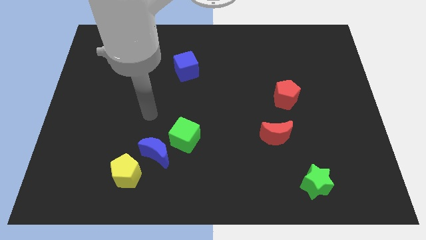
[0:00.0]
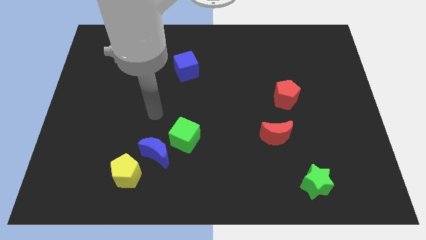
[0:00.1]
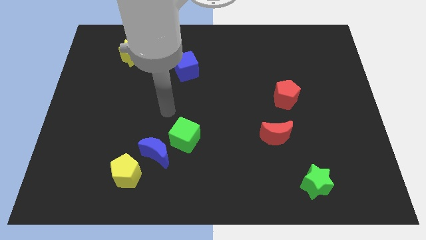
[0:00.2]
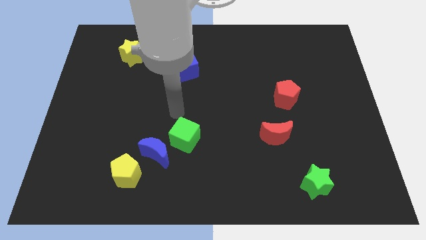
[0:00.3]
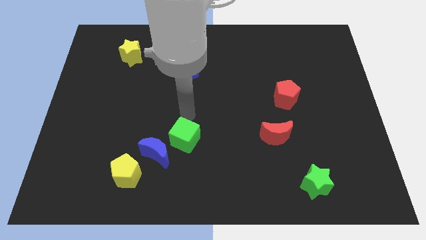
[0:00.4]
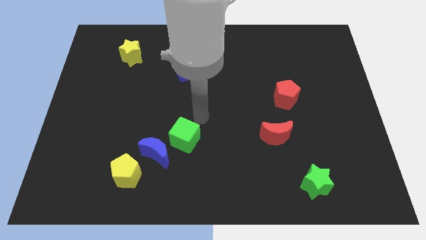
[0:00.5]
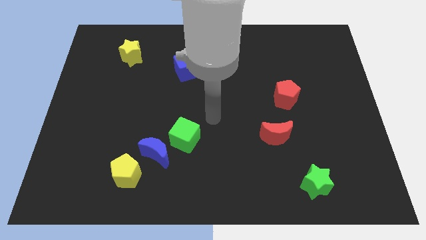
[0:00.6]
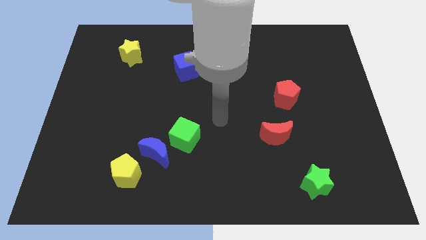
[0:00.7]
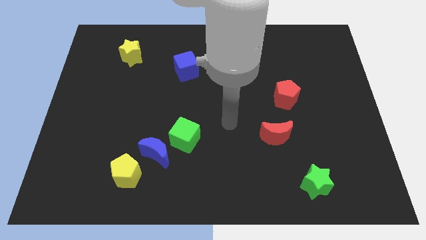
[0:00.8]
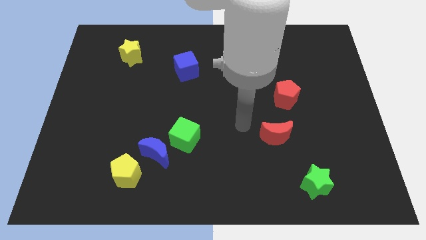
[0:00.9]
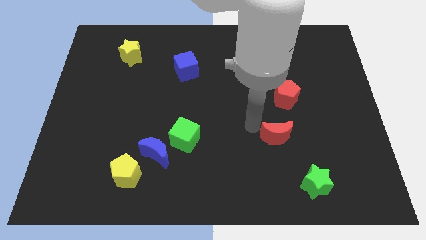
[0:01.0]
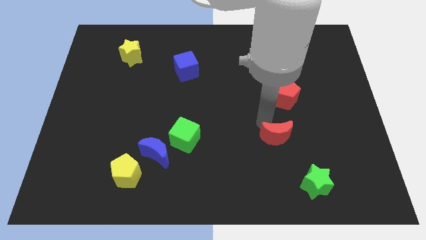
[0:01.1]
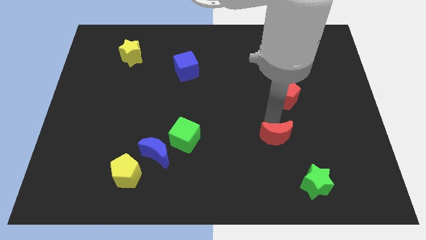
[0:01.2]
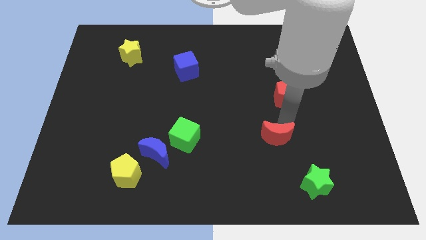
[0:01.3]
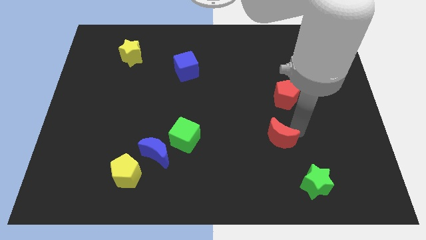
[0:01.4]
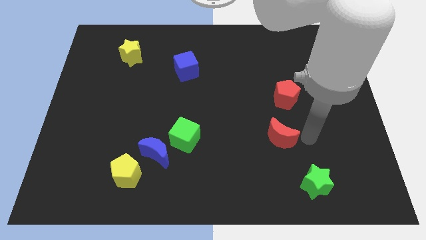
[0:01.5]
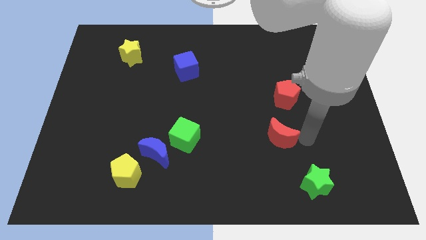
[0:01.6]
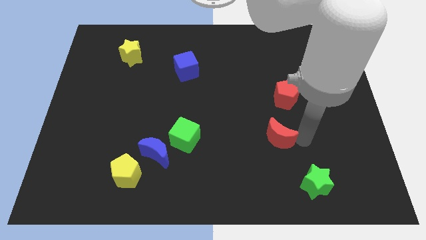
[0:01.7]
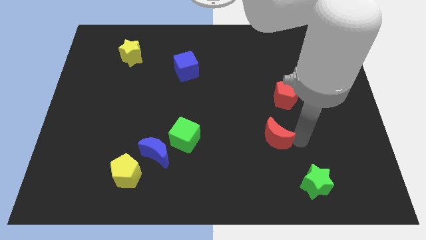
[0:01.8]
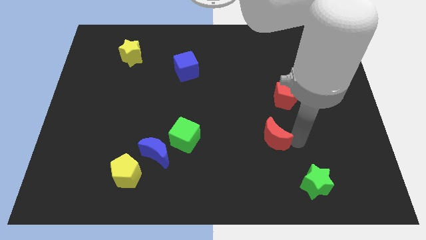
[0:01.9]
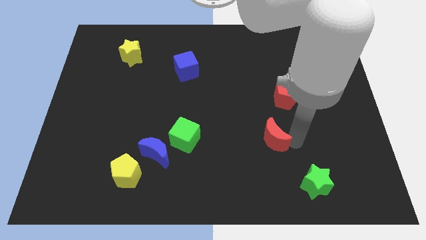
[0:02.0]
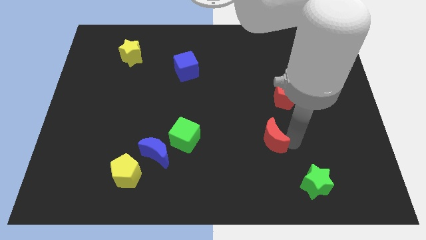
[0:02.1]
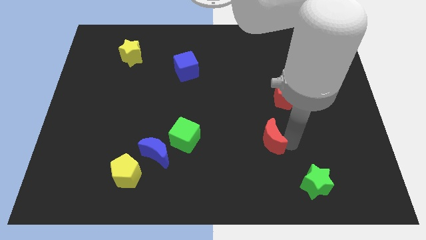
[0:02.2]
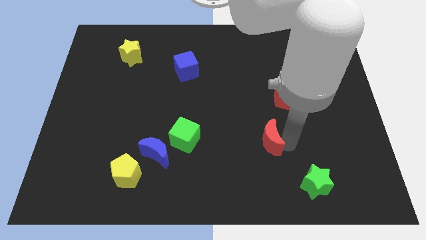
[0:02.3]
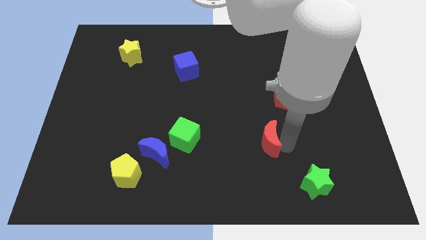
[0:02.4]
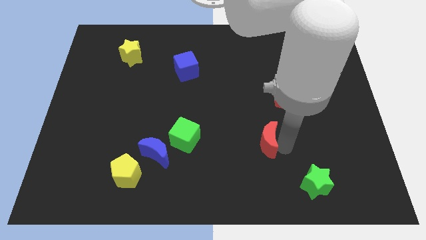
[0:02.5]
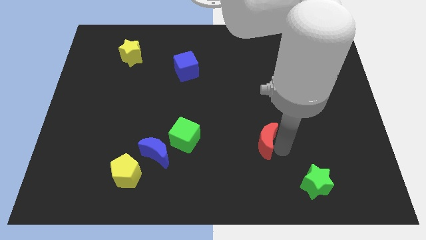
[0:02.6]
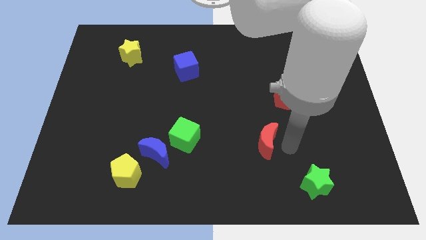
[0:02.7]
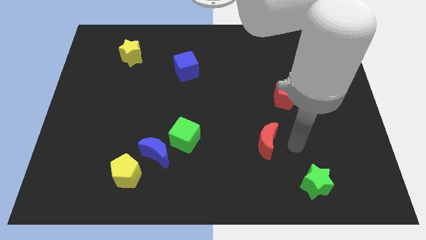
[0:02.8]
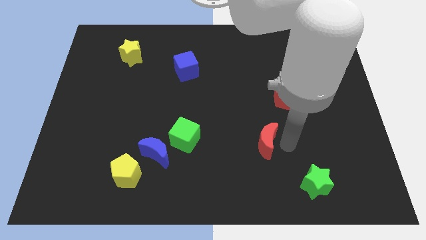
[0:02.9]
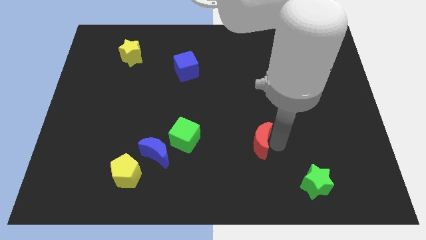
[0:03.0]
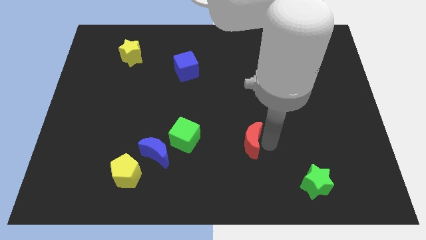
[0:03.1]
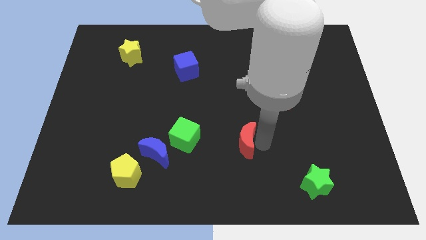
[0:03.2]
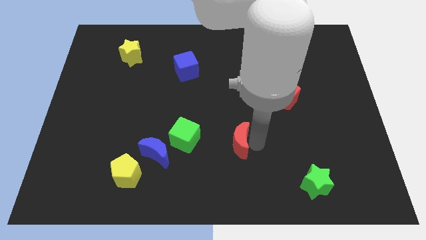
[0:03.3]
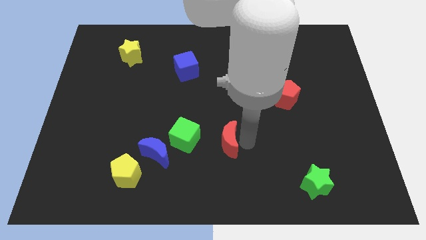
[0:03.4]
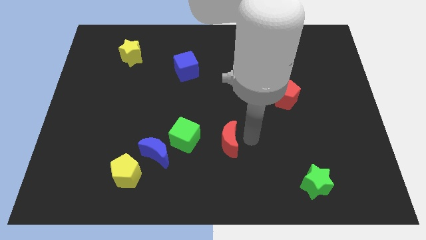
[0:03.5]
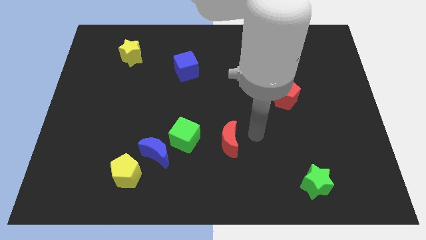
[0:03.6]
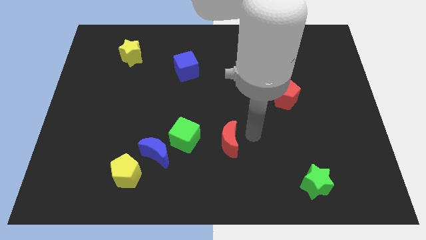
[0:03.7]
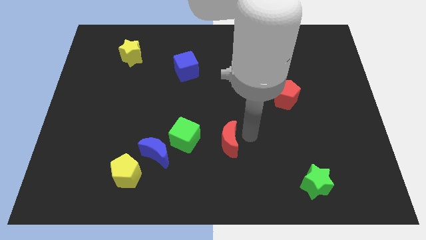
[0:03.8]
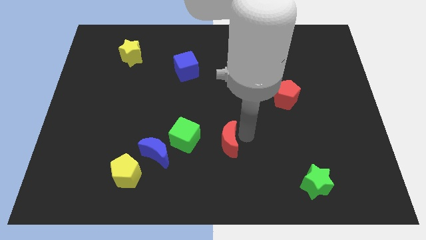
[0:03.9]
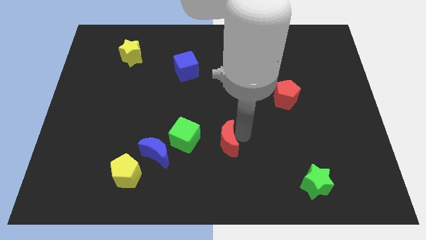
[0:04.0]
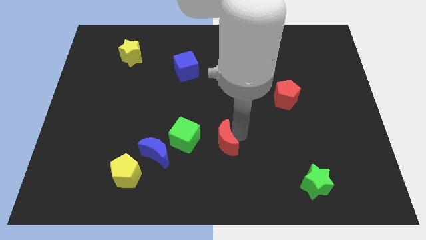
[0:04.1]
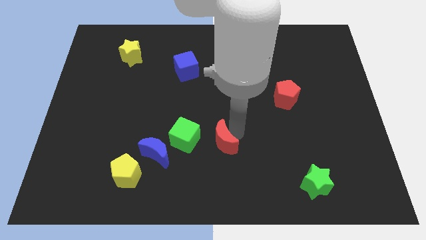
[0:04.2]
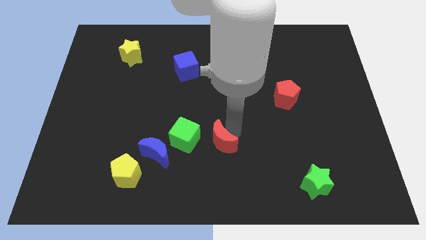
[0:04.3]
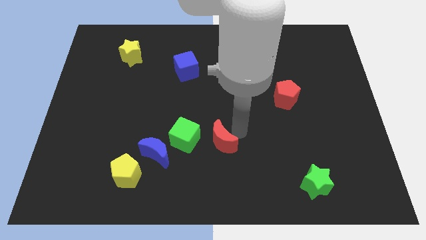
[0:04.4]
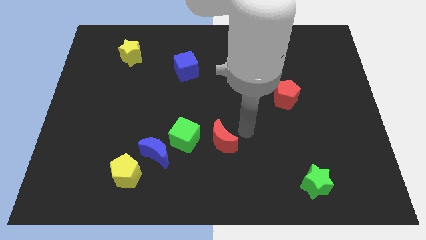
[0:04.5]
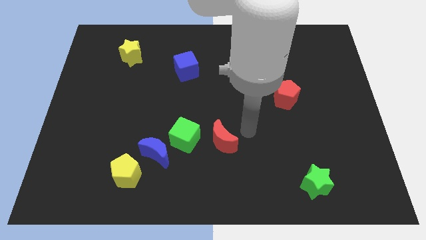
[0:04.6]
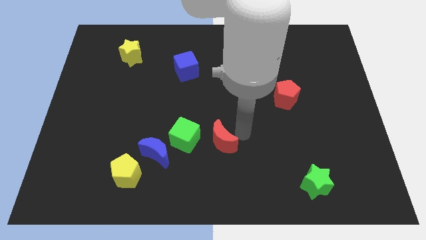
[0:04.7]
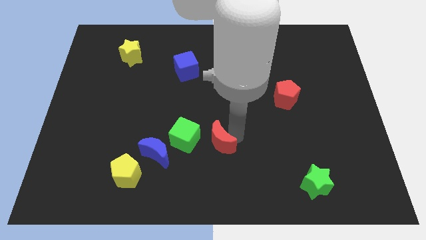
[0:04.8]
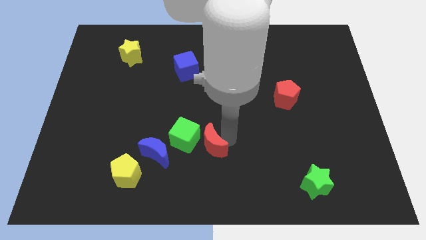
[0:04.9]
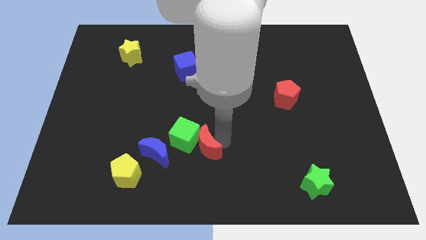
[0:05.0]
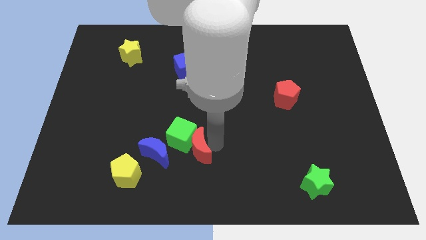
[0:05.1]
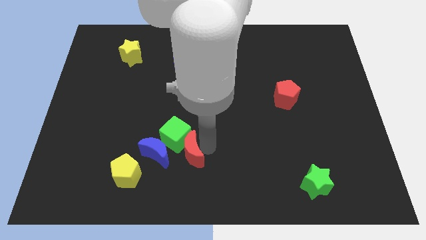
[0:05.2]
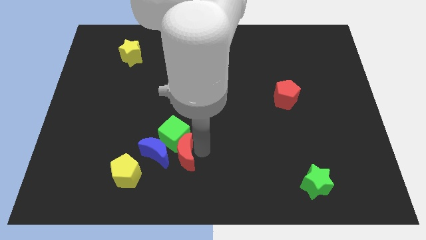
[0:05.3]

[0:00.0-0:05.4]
put the red moon to the blue moon

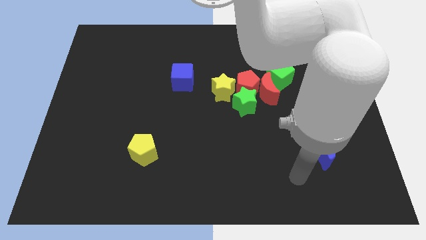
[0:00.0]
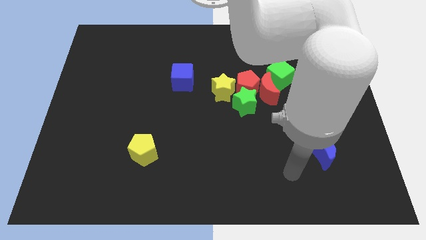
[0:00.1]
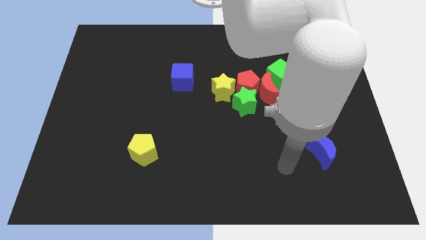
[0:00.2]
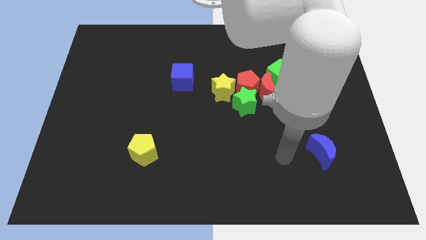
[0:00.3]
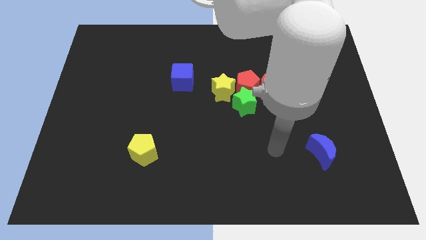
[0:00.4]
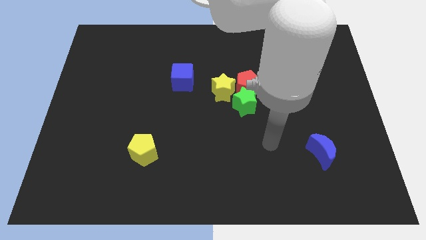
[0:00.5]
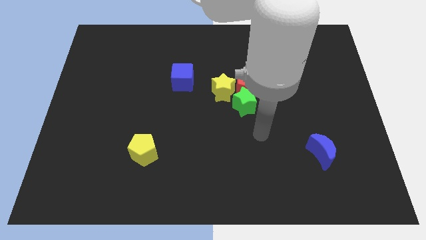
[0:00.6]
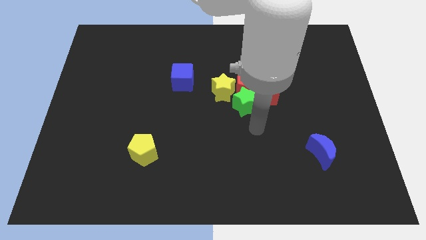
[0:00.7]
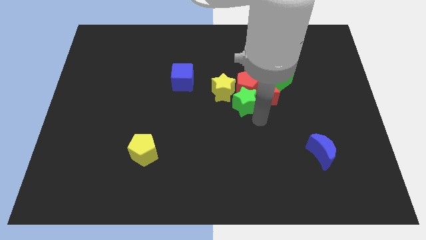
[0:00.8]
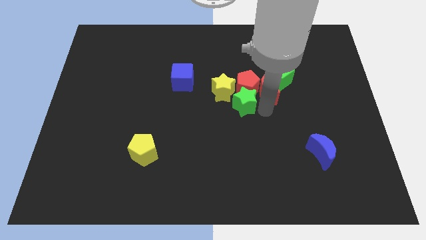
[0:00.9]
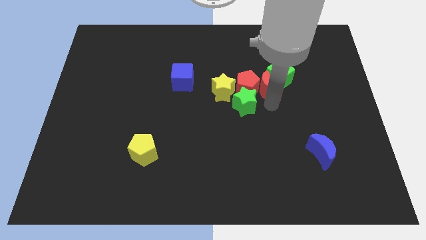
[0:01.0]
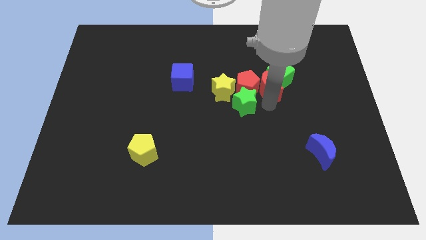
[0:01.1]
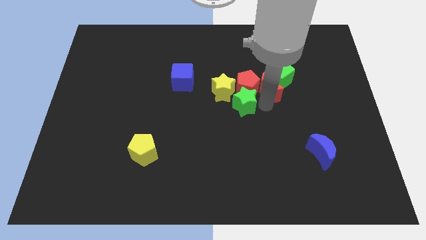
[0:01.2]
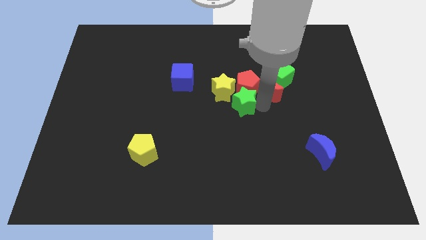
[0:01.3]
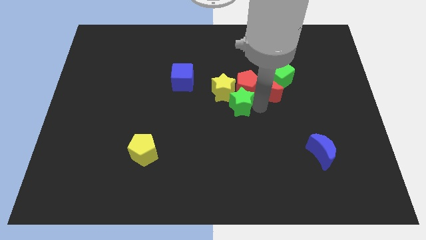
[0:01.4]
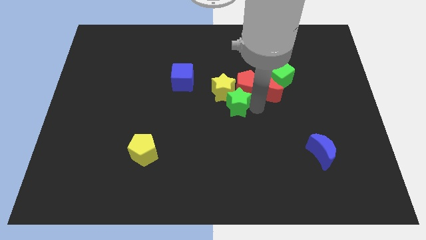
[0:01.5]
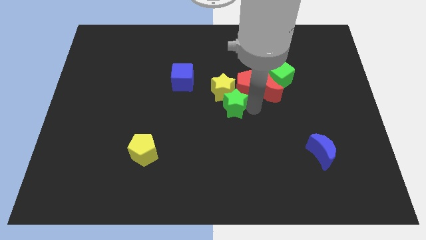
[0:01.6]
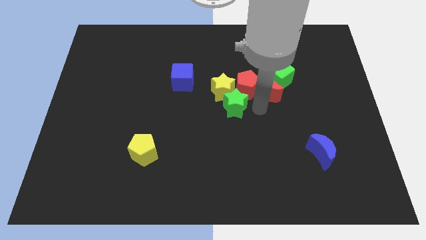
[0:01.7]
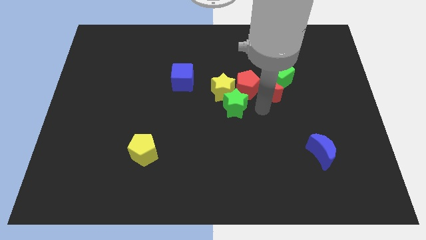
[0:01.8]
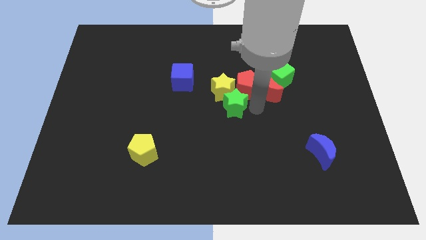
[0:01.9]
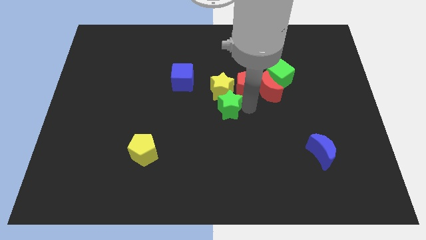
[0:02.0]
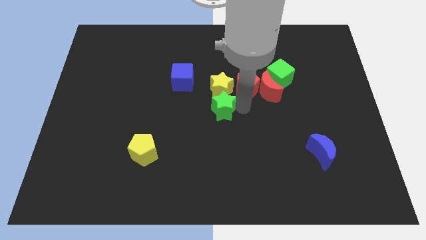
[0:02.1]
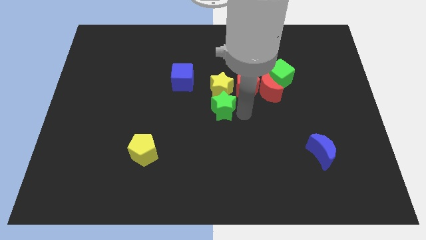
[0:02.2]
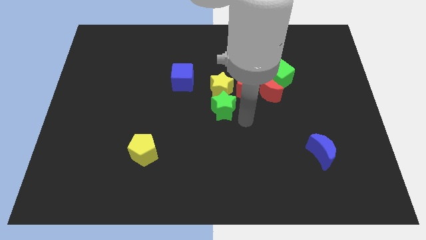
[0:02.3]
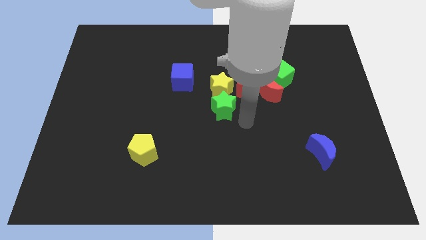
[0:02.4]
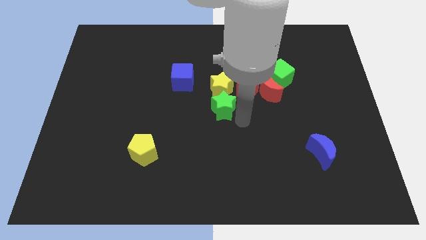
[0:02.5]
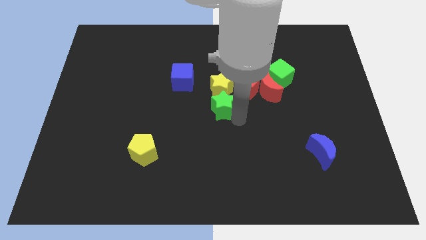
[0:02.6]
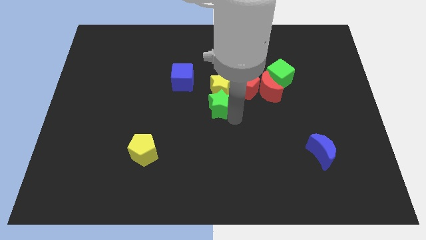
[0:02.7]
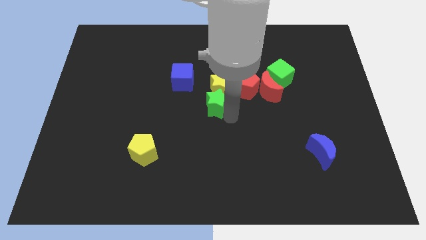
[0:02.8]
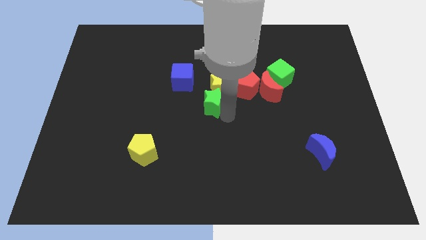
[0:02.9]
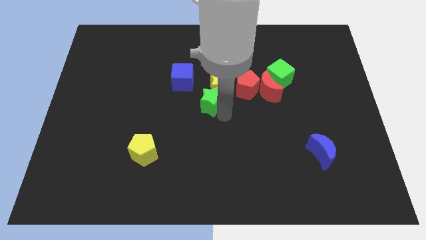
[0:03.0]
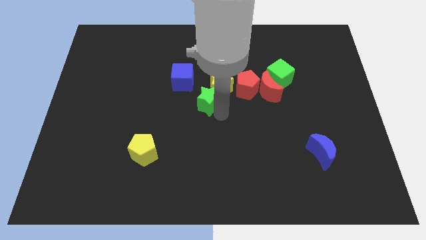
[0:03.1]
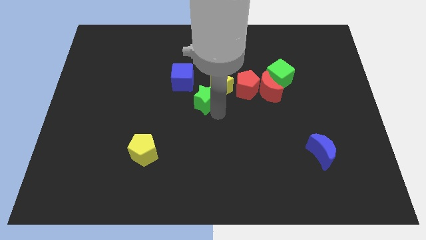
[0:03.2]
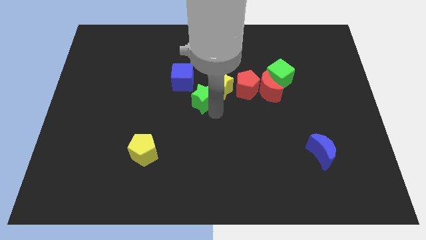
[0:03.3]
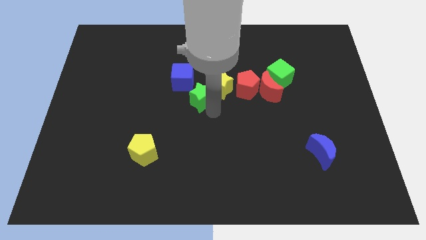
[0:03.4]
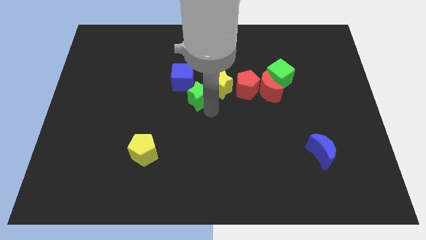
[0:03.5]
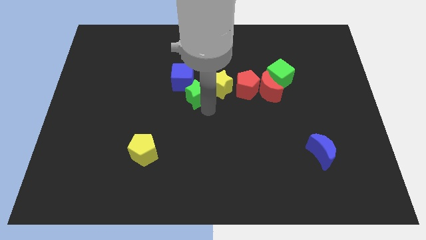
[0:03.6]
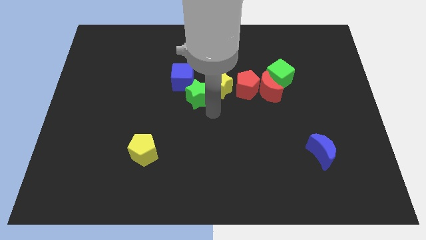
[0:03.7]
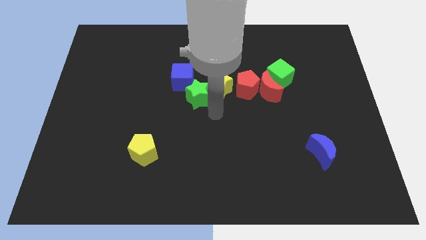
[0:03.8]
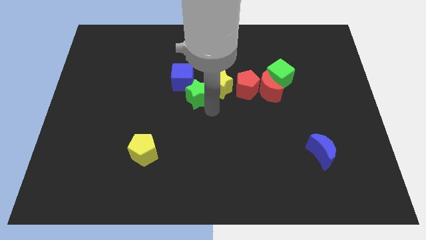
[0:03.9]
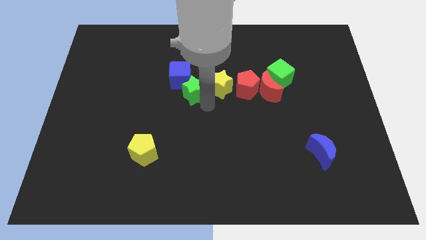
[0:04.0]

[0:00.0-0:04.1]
push the green star towards the blue cube
